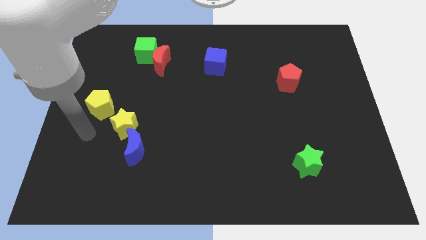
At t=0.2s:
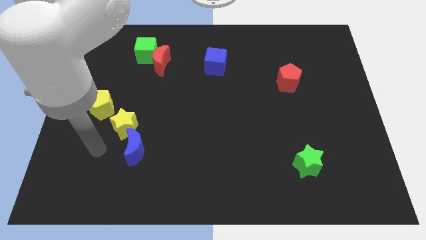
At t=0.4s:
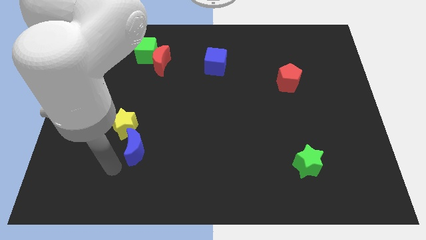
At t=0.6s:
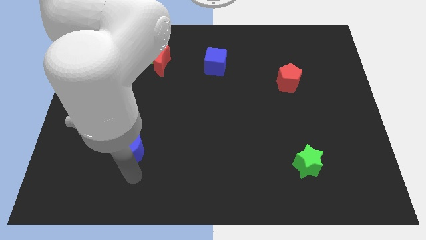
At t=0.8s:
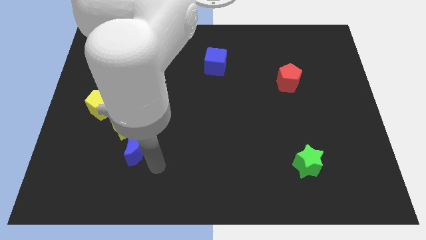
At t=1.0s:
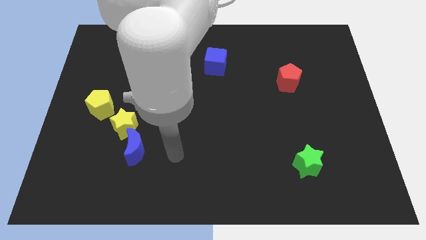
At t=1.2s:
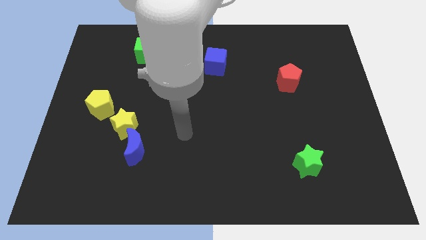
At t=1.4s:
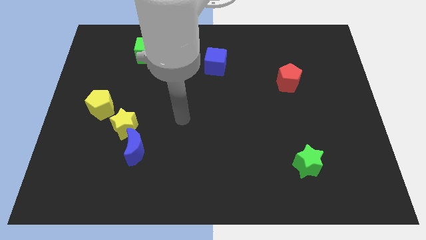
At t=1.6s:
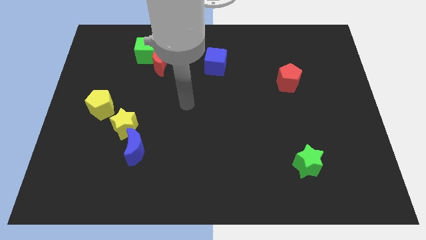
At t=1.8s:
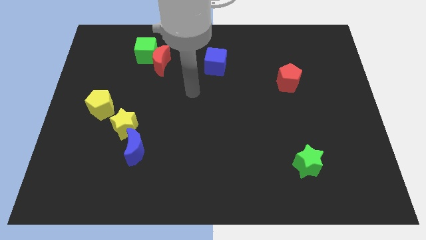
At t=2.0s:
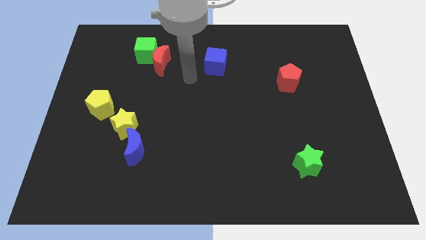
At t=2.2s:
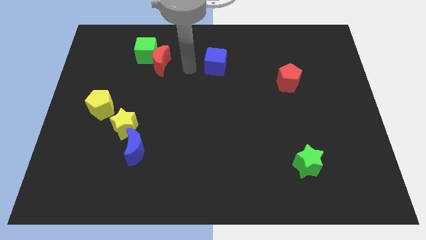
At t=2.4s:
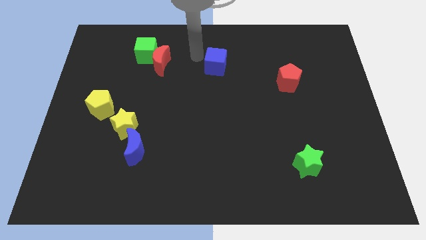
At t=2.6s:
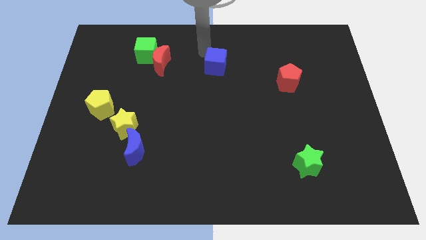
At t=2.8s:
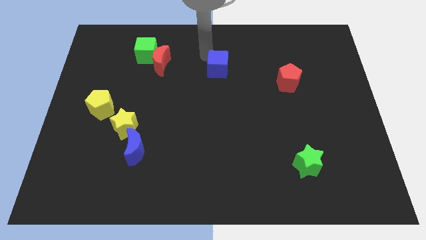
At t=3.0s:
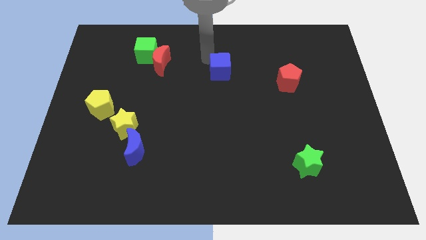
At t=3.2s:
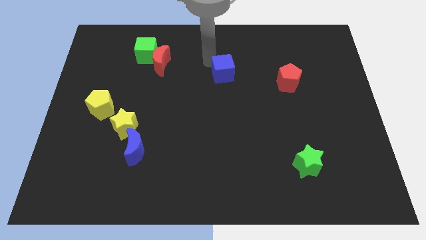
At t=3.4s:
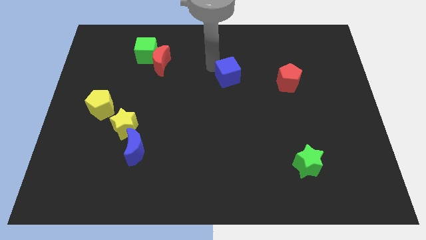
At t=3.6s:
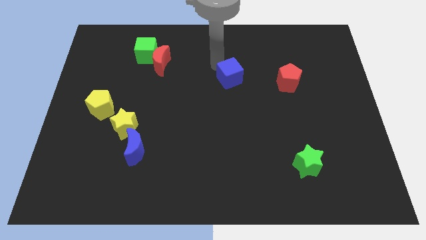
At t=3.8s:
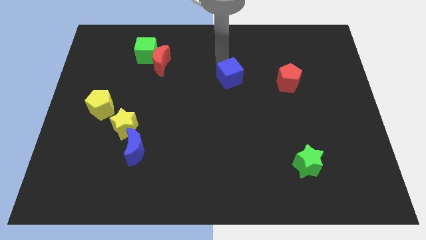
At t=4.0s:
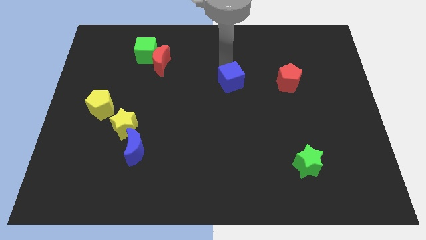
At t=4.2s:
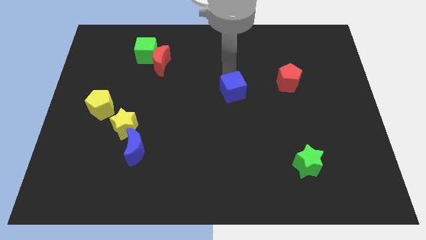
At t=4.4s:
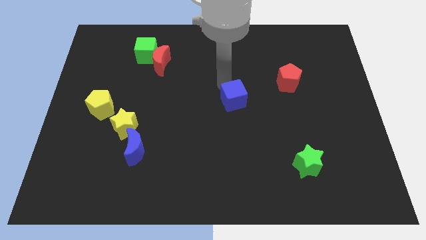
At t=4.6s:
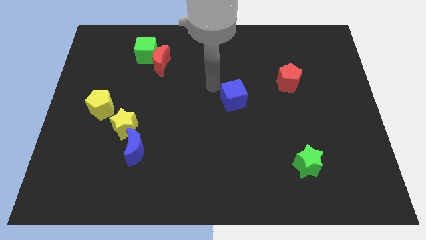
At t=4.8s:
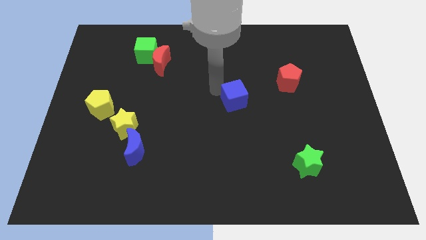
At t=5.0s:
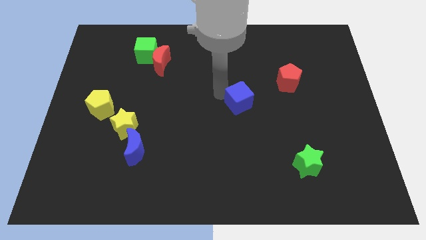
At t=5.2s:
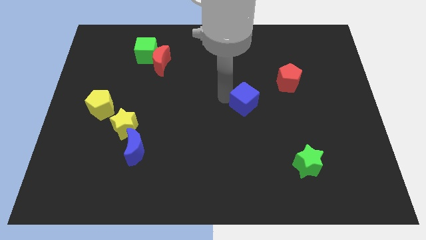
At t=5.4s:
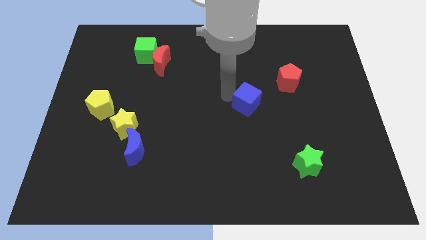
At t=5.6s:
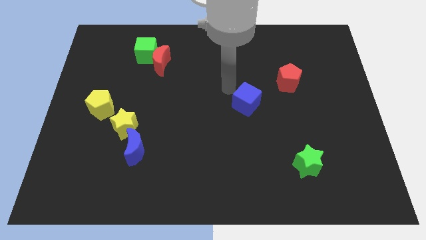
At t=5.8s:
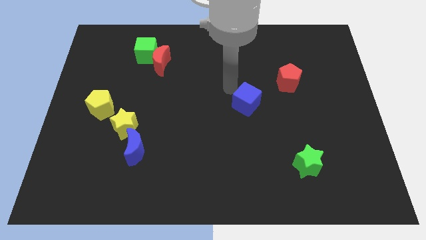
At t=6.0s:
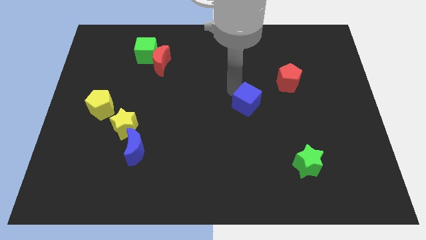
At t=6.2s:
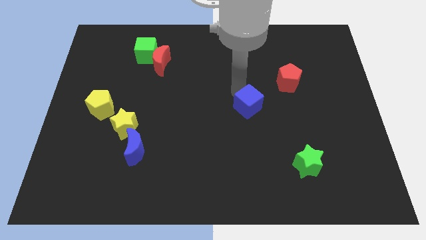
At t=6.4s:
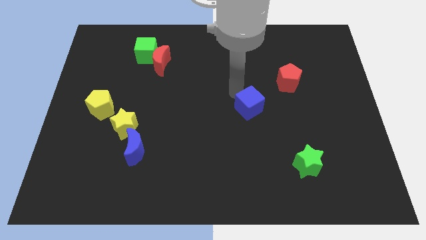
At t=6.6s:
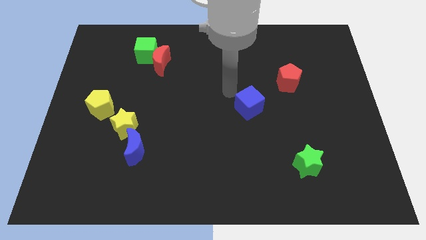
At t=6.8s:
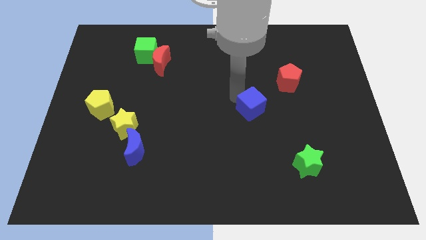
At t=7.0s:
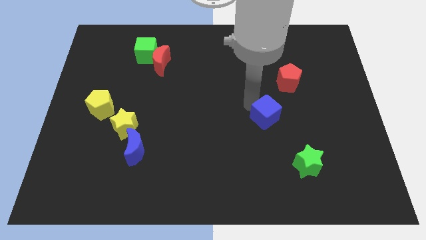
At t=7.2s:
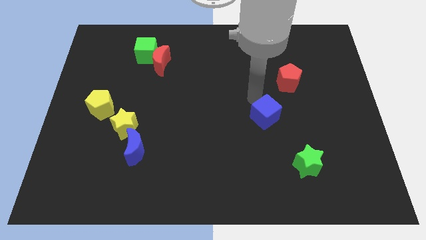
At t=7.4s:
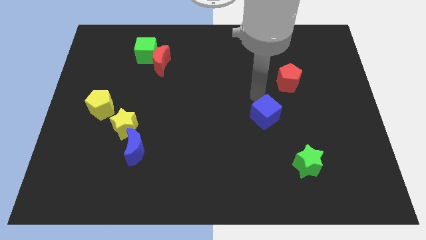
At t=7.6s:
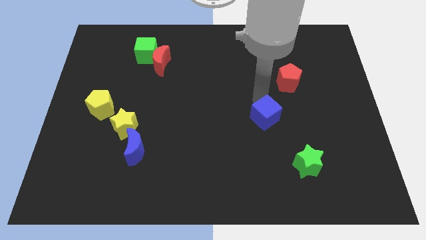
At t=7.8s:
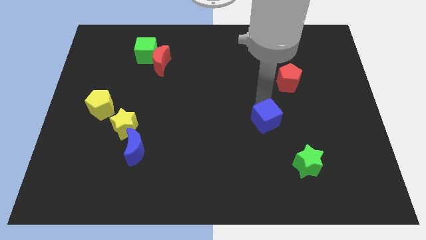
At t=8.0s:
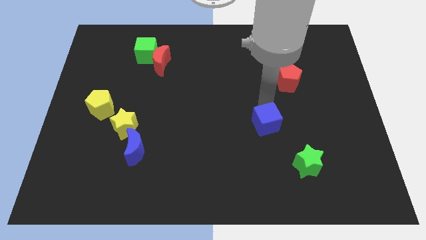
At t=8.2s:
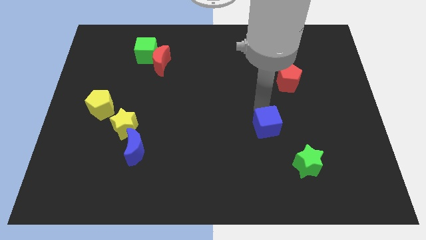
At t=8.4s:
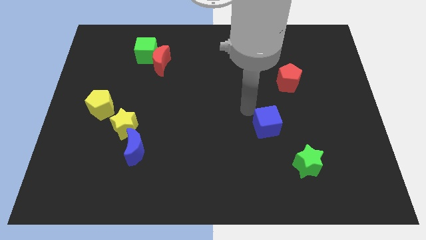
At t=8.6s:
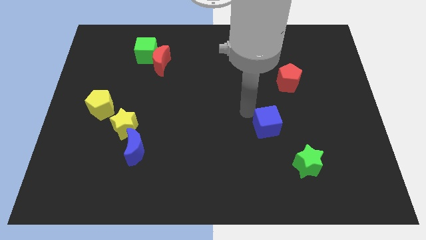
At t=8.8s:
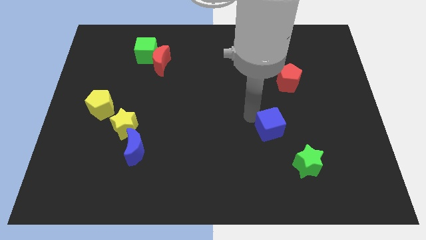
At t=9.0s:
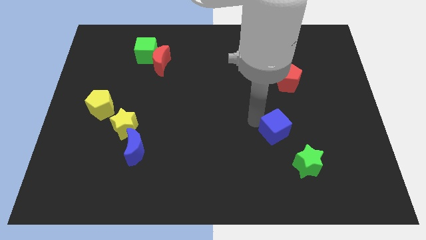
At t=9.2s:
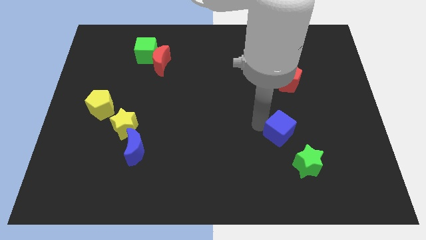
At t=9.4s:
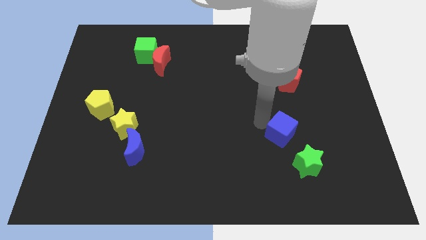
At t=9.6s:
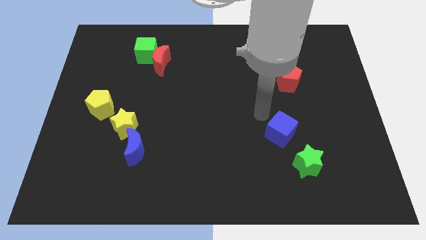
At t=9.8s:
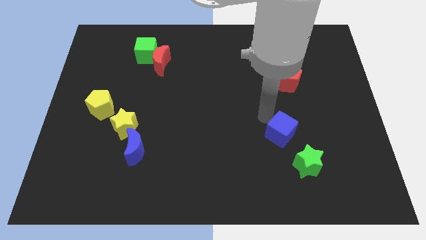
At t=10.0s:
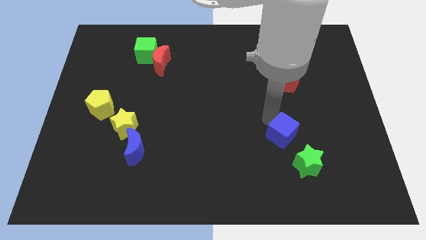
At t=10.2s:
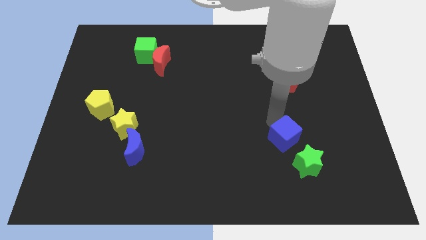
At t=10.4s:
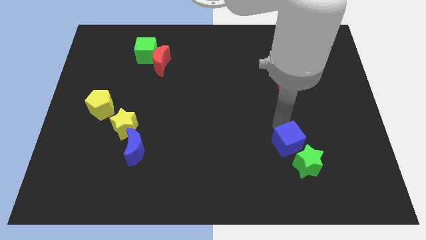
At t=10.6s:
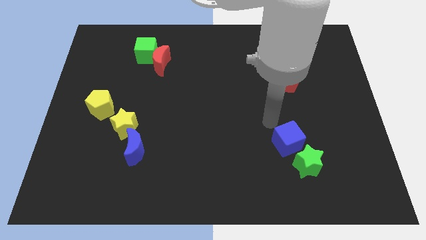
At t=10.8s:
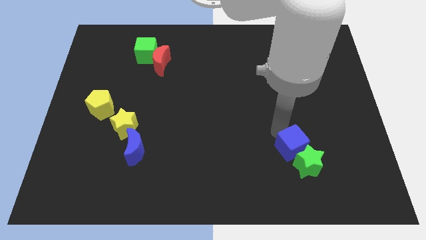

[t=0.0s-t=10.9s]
move the blue cube towards the green star

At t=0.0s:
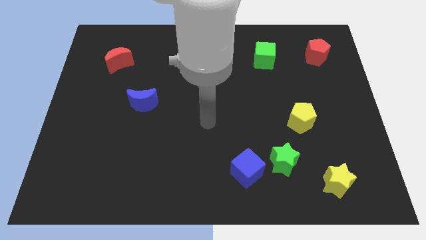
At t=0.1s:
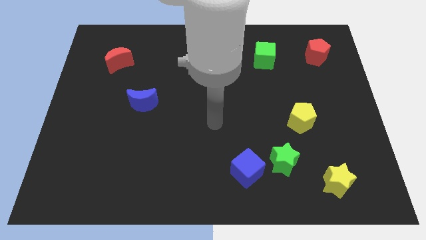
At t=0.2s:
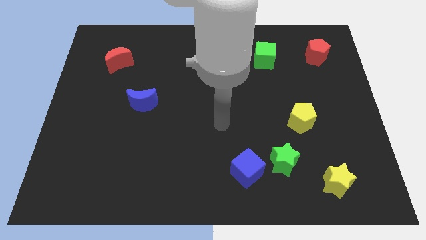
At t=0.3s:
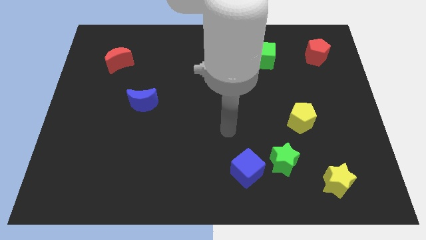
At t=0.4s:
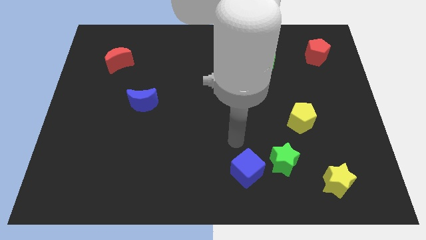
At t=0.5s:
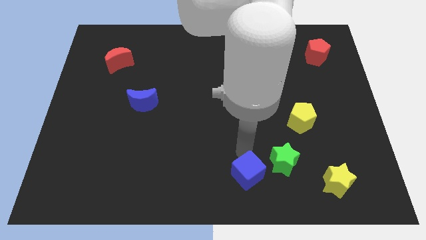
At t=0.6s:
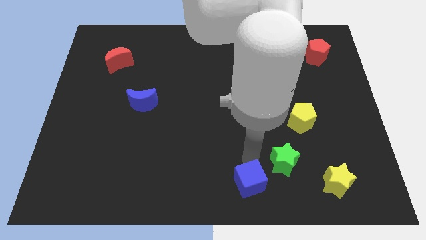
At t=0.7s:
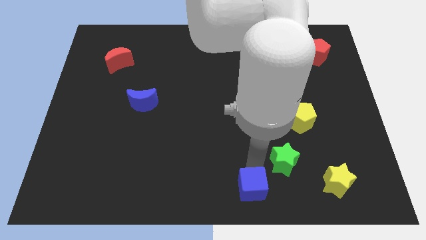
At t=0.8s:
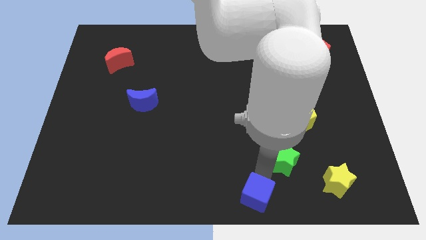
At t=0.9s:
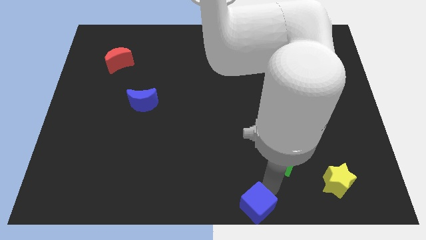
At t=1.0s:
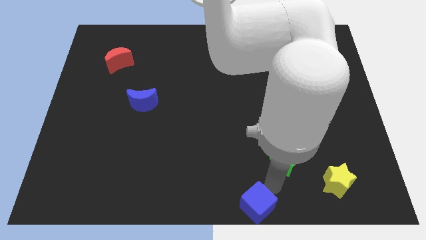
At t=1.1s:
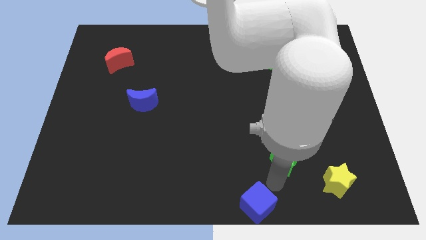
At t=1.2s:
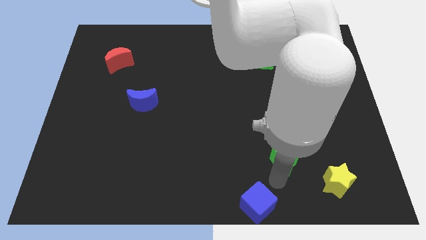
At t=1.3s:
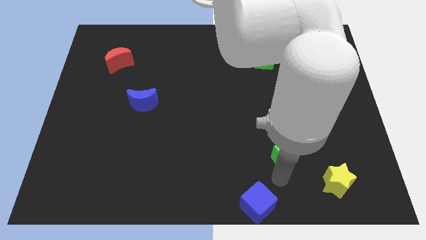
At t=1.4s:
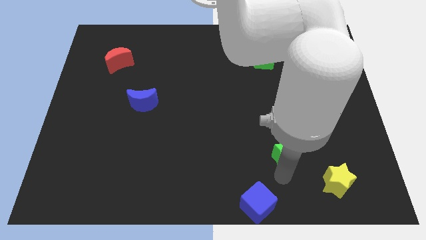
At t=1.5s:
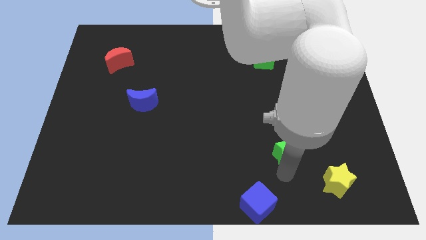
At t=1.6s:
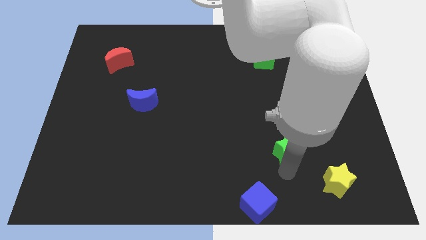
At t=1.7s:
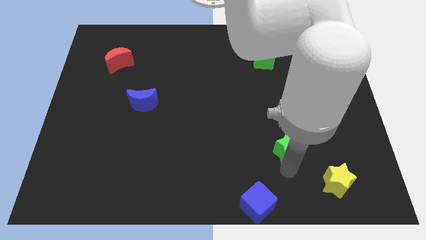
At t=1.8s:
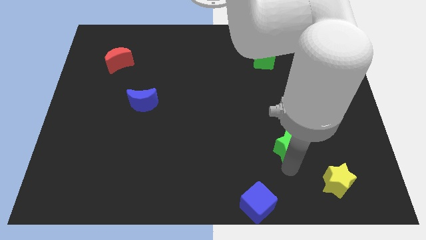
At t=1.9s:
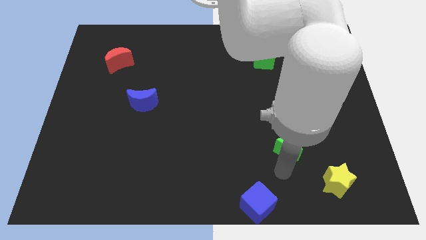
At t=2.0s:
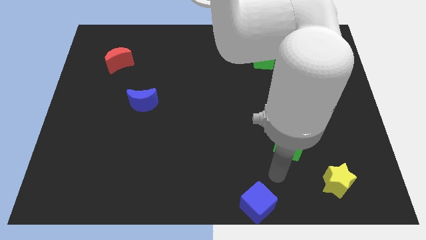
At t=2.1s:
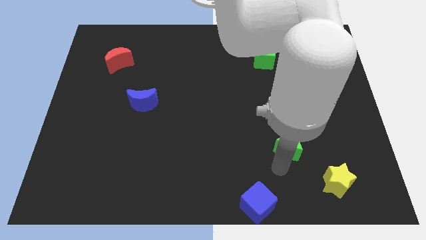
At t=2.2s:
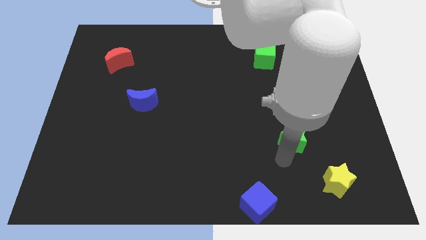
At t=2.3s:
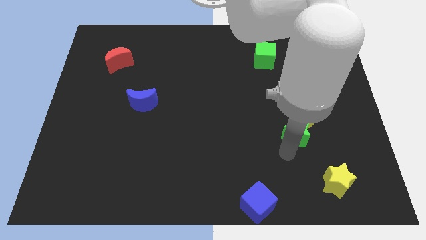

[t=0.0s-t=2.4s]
push the green star towards the yellow pentagon

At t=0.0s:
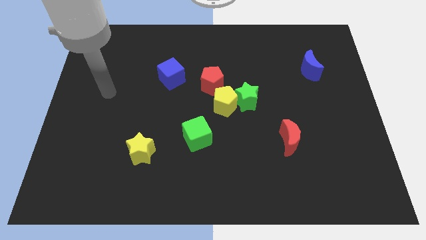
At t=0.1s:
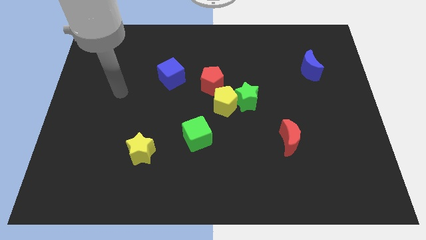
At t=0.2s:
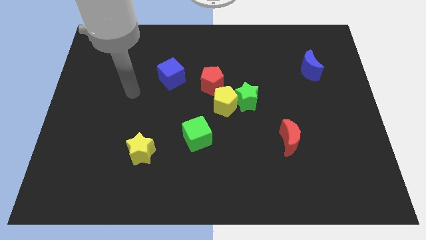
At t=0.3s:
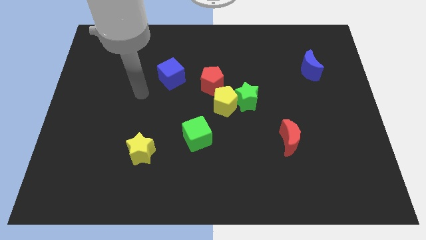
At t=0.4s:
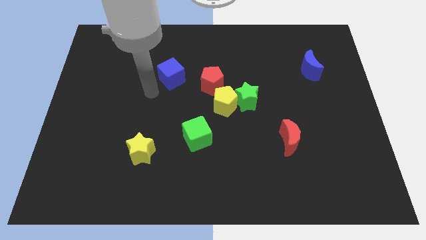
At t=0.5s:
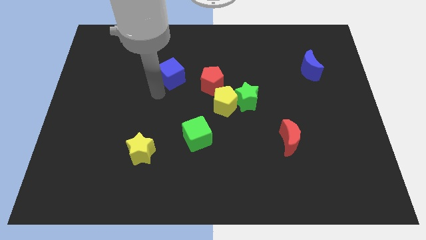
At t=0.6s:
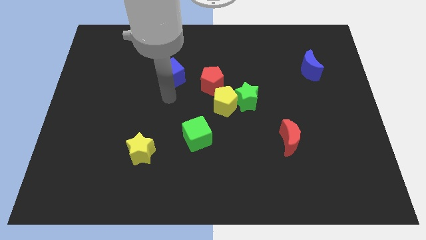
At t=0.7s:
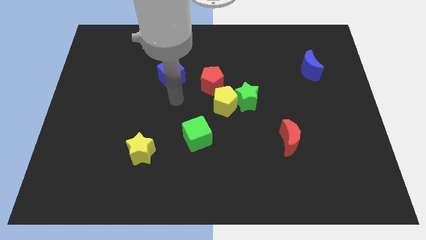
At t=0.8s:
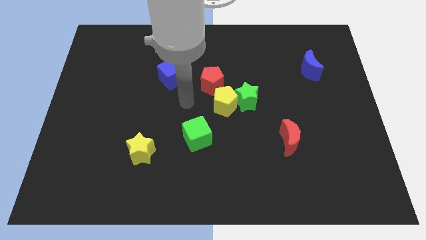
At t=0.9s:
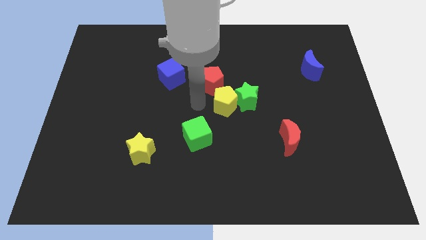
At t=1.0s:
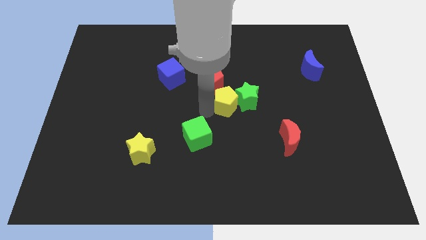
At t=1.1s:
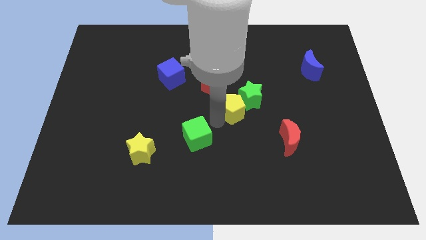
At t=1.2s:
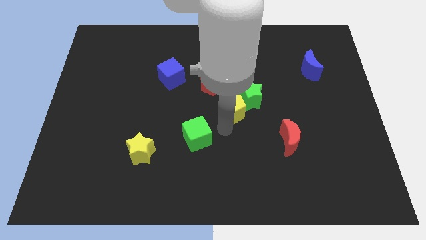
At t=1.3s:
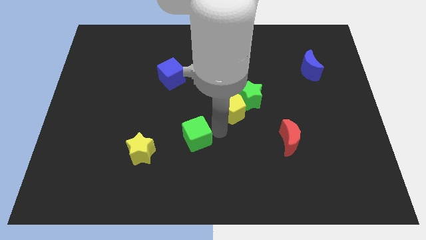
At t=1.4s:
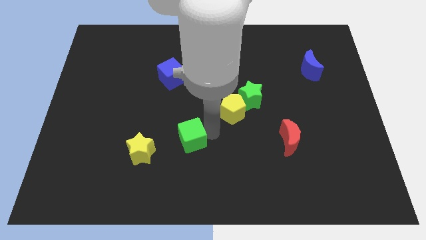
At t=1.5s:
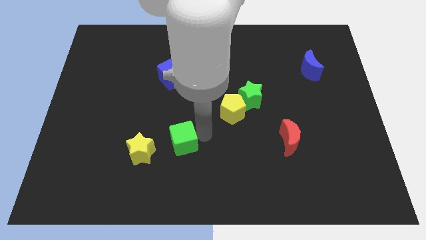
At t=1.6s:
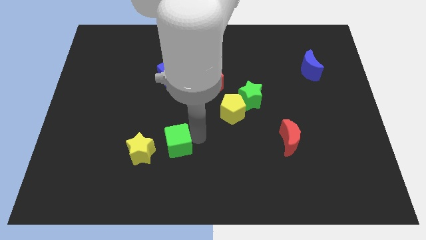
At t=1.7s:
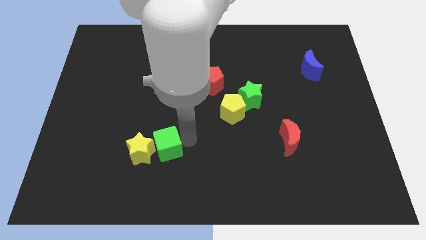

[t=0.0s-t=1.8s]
slide the green cube towards the yellow star
